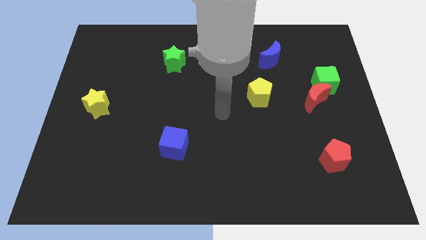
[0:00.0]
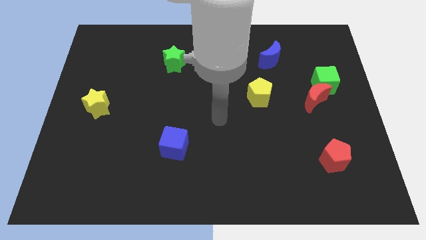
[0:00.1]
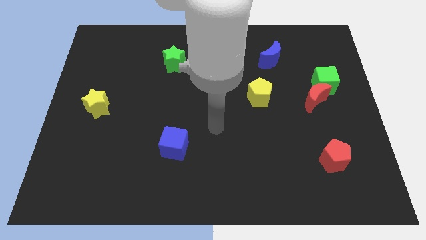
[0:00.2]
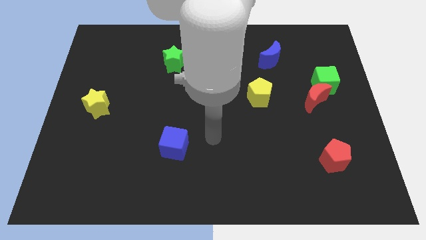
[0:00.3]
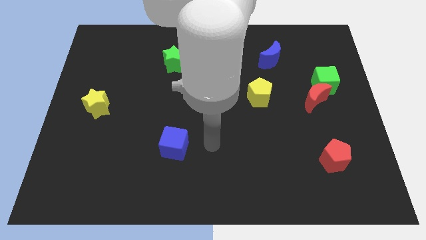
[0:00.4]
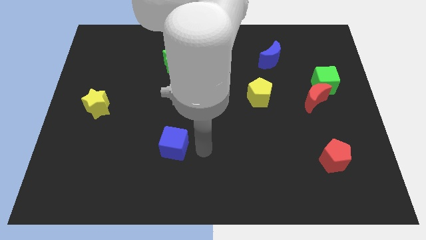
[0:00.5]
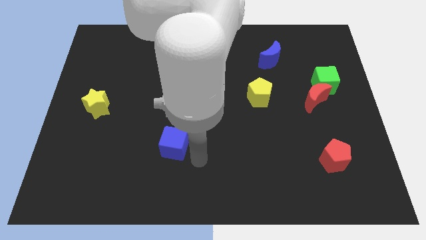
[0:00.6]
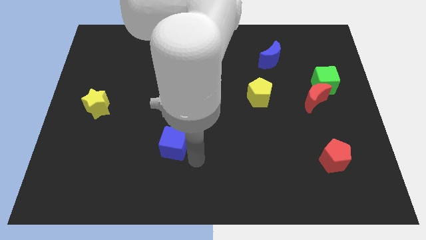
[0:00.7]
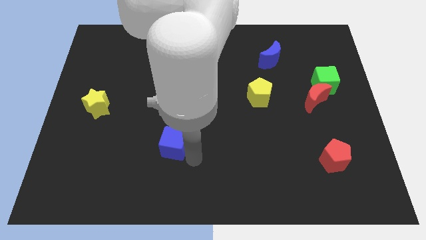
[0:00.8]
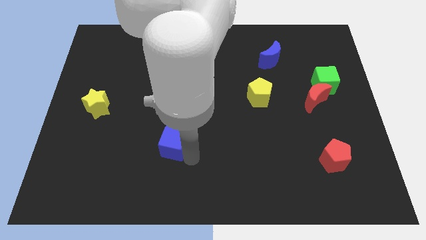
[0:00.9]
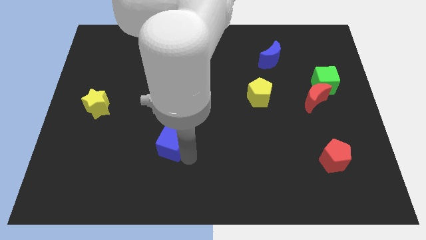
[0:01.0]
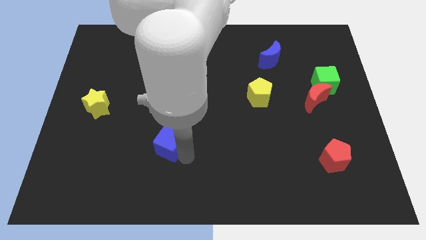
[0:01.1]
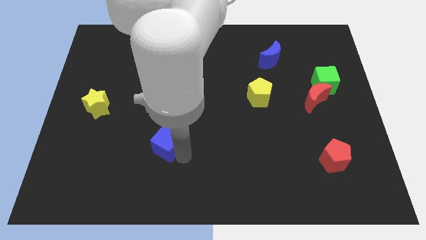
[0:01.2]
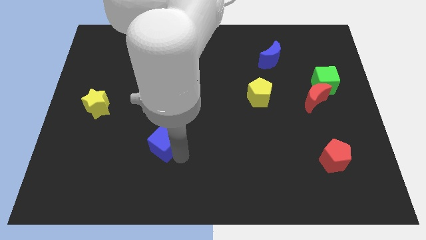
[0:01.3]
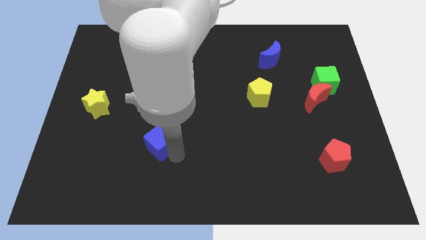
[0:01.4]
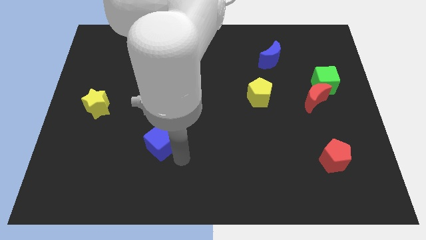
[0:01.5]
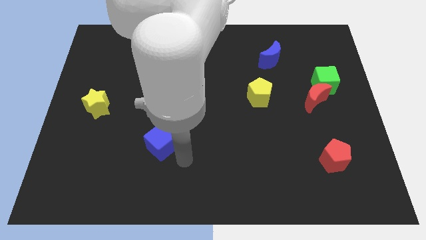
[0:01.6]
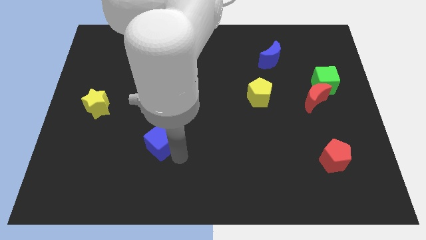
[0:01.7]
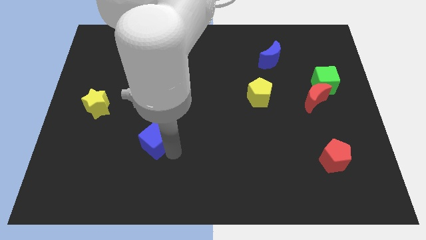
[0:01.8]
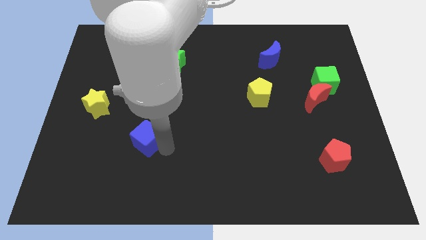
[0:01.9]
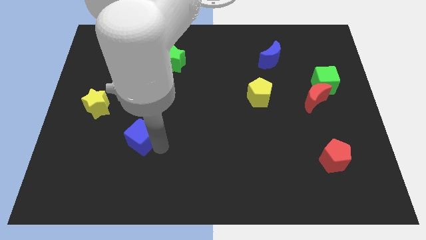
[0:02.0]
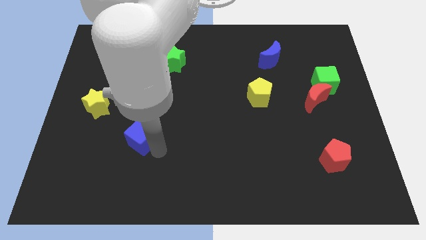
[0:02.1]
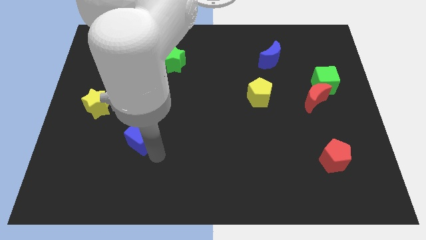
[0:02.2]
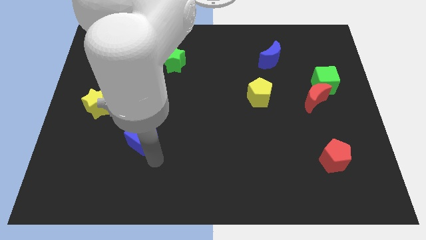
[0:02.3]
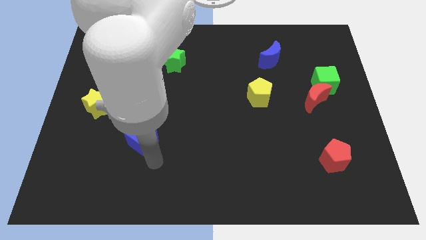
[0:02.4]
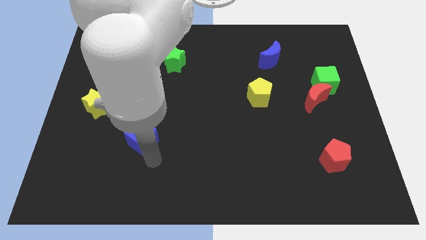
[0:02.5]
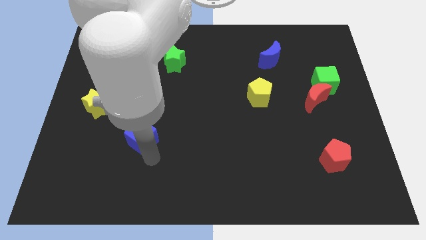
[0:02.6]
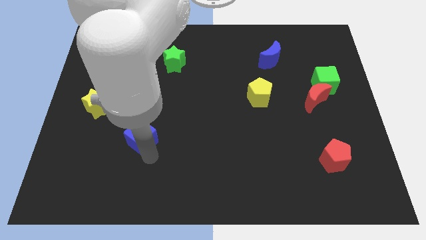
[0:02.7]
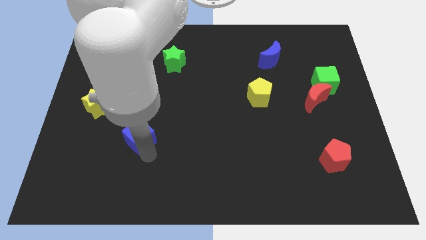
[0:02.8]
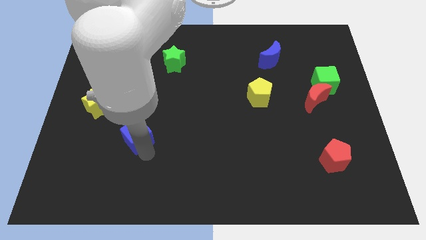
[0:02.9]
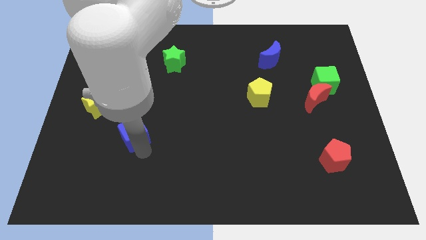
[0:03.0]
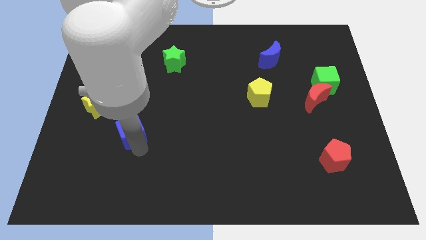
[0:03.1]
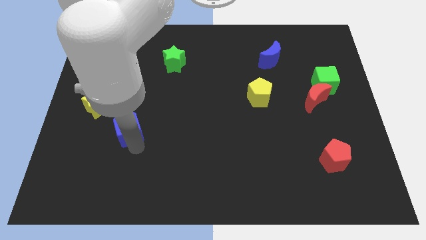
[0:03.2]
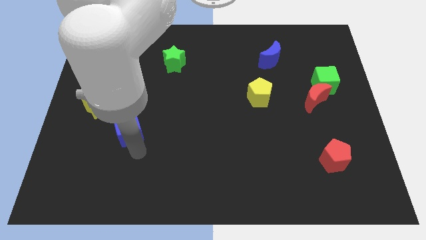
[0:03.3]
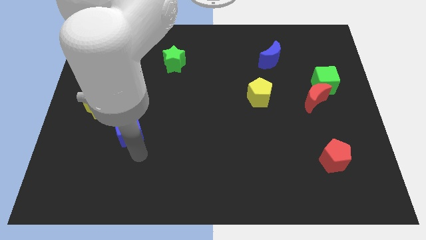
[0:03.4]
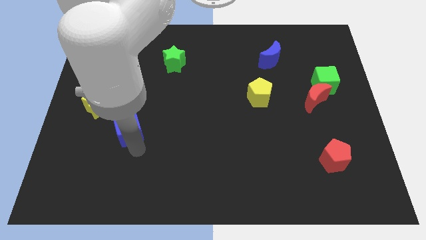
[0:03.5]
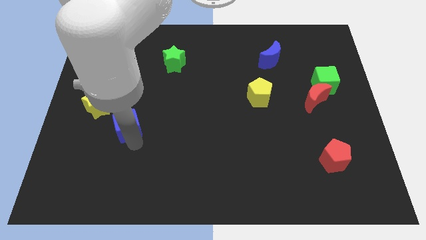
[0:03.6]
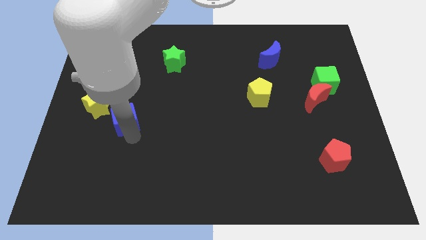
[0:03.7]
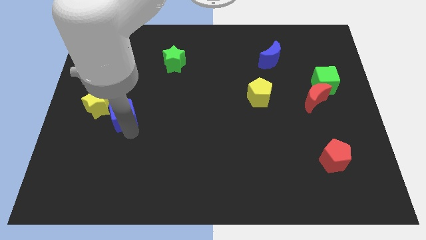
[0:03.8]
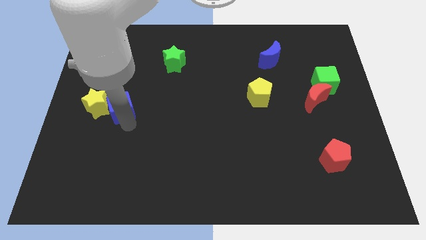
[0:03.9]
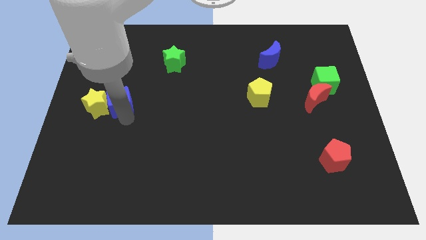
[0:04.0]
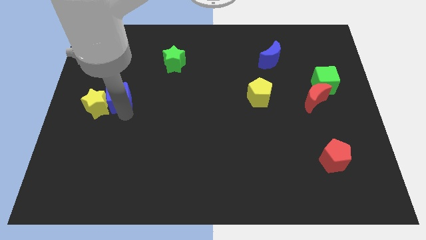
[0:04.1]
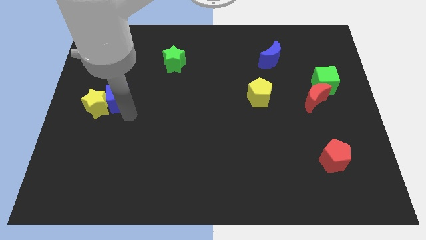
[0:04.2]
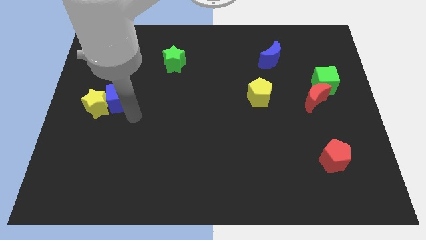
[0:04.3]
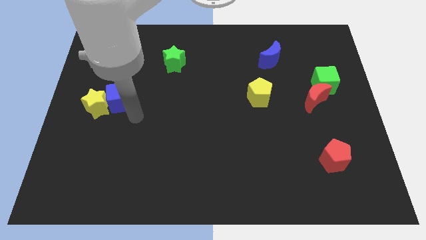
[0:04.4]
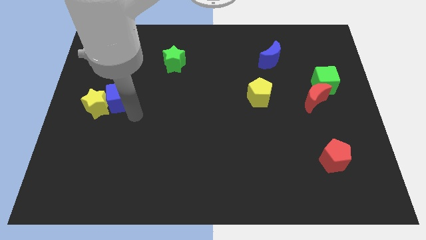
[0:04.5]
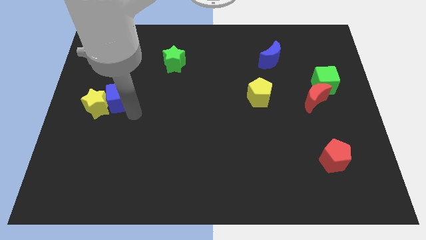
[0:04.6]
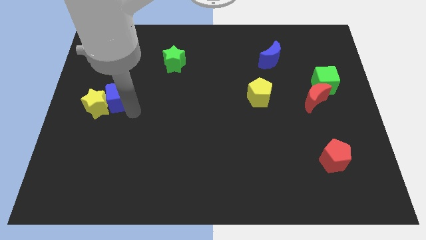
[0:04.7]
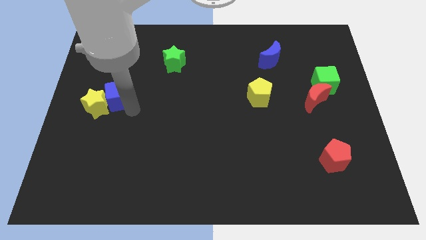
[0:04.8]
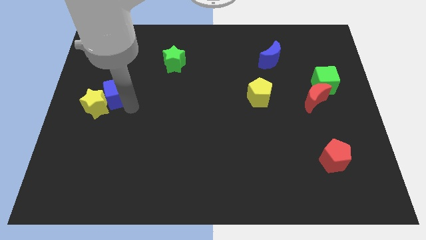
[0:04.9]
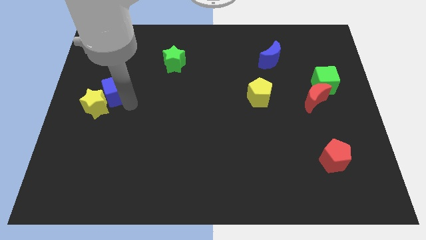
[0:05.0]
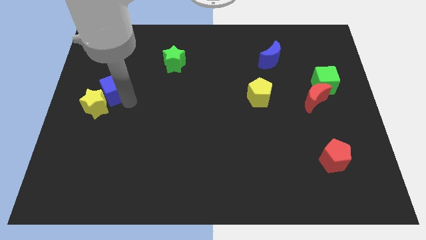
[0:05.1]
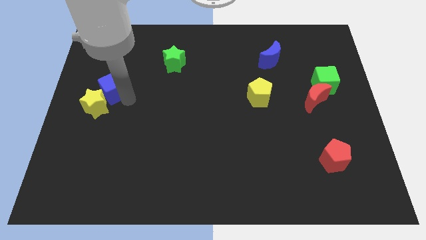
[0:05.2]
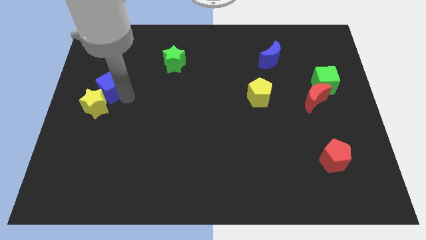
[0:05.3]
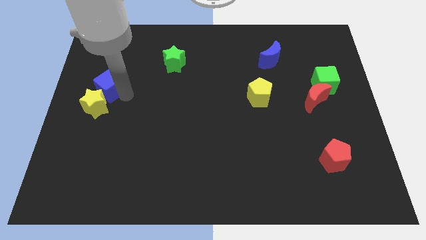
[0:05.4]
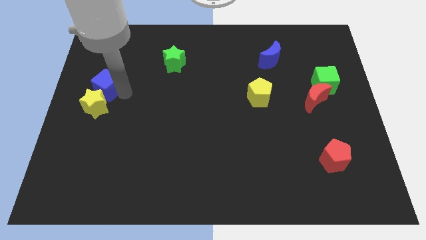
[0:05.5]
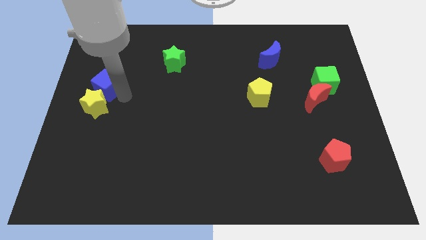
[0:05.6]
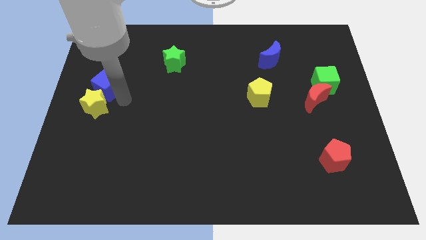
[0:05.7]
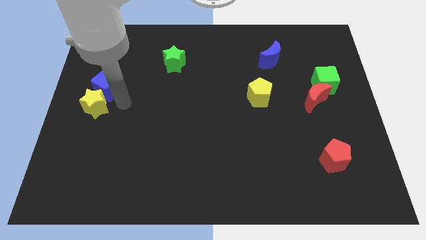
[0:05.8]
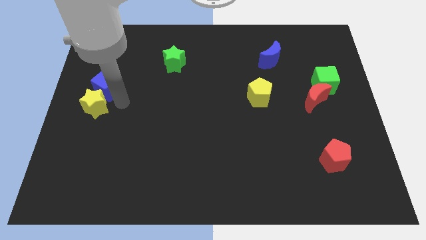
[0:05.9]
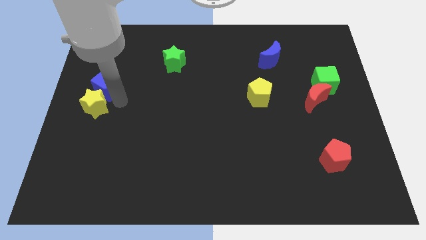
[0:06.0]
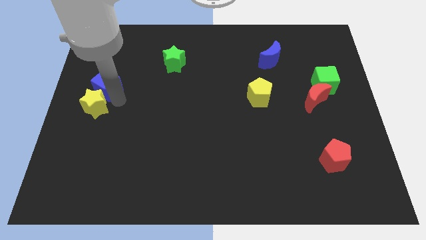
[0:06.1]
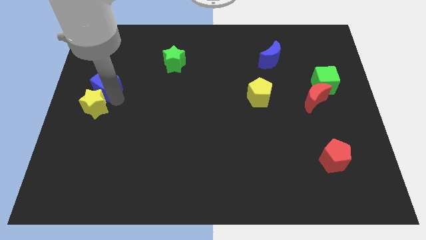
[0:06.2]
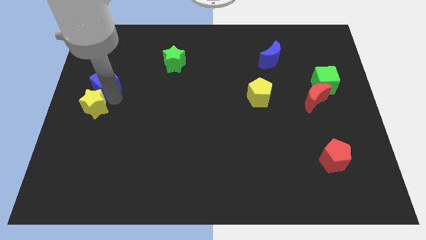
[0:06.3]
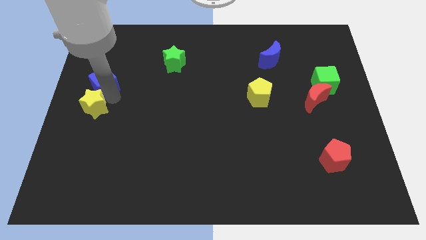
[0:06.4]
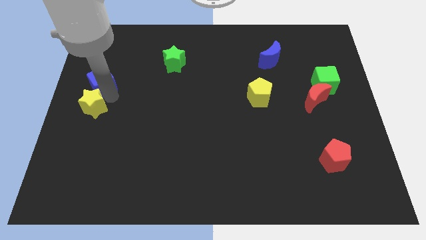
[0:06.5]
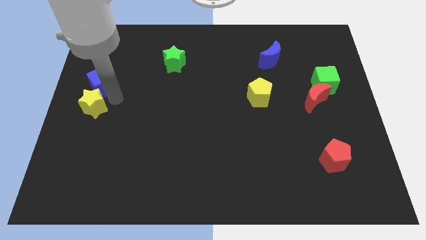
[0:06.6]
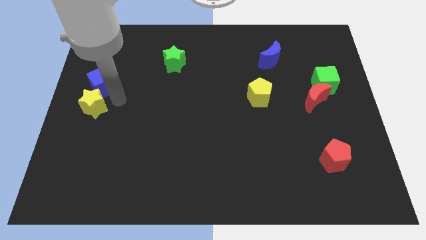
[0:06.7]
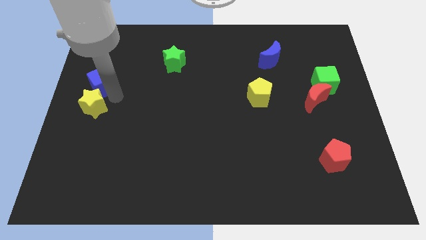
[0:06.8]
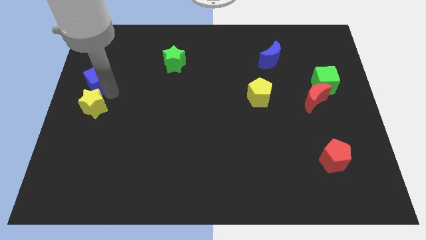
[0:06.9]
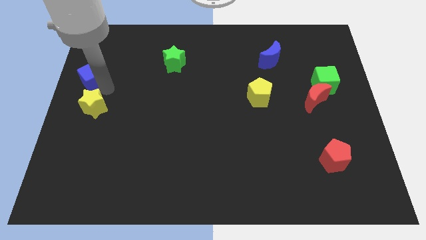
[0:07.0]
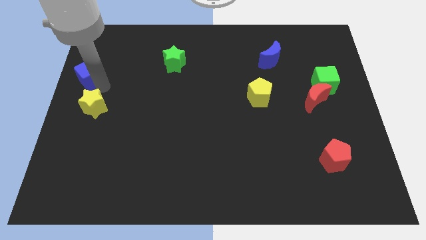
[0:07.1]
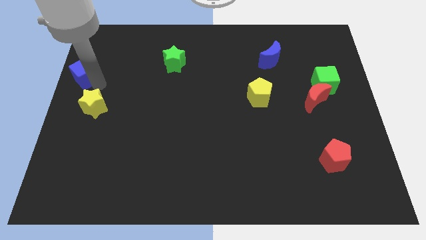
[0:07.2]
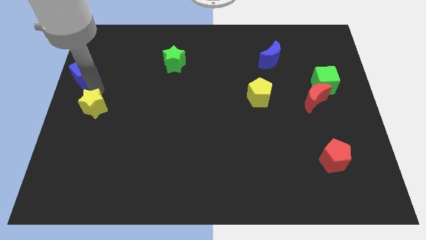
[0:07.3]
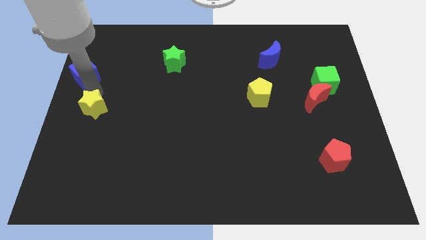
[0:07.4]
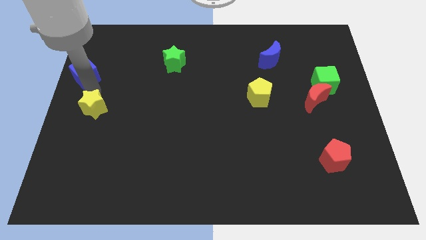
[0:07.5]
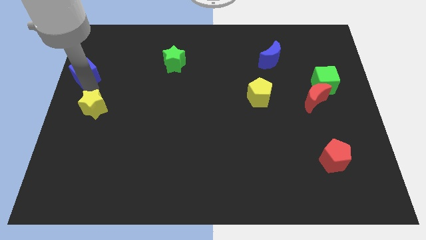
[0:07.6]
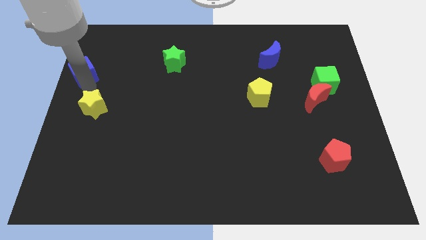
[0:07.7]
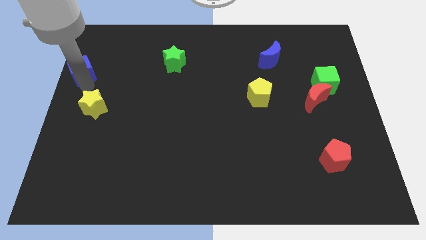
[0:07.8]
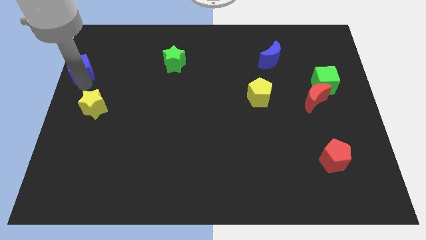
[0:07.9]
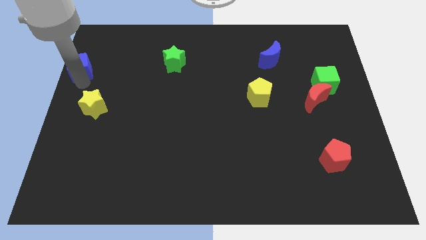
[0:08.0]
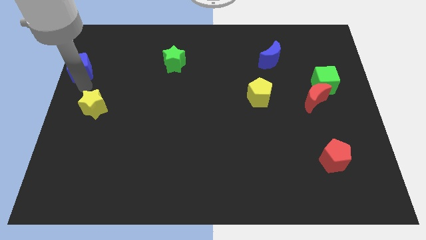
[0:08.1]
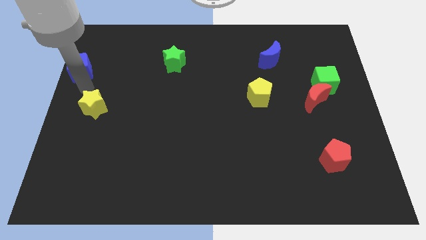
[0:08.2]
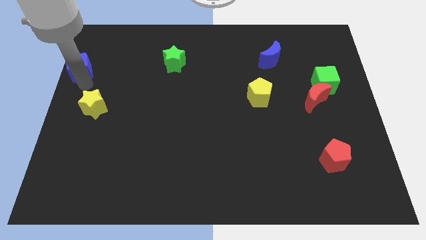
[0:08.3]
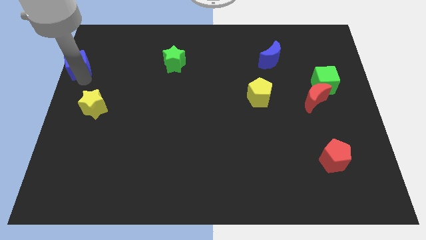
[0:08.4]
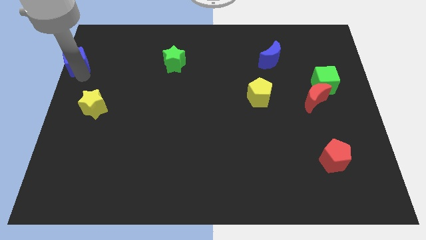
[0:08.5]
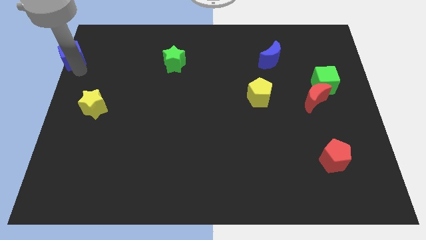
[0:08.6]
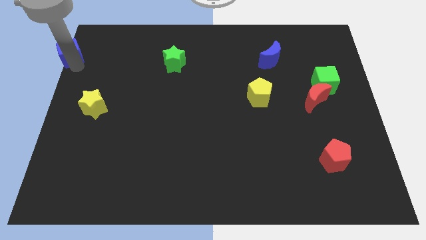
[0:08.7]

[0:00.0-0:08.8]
put the blue cube to the top left of the board
